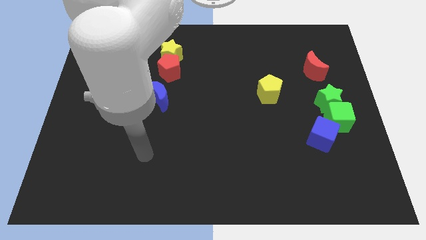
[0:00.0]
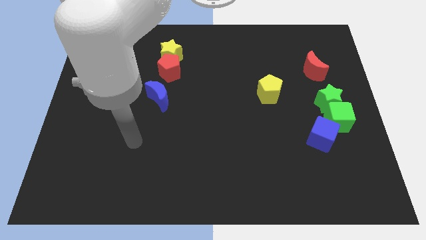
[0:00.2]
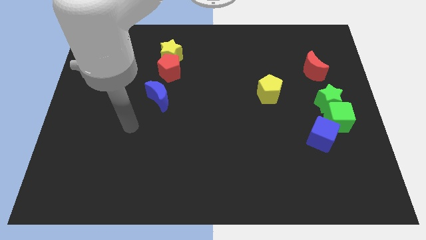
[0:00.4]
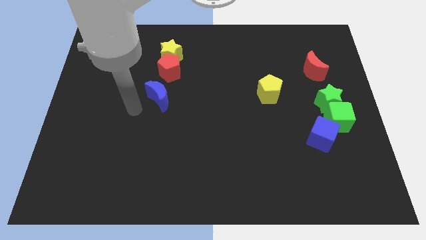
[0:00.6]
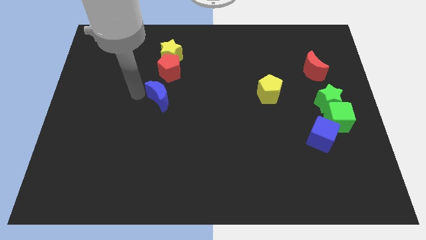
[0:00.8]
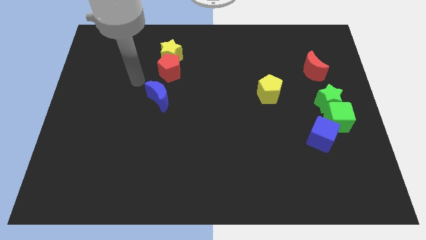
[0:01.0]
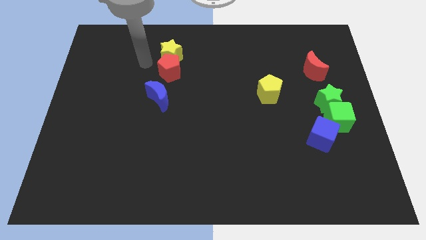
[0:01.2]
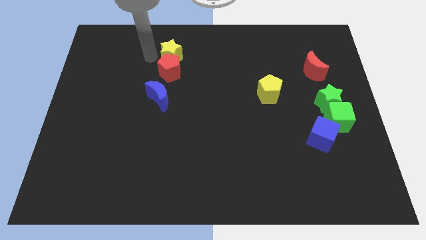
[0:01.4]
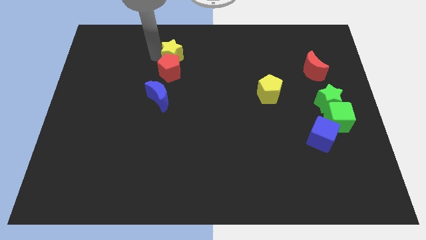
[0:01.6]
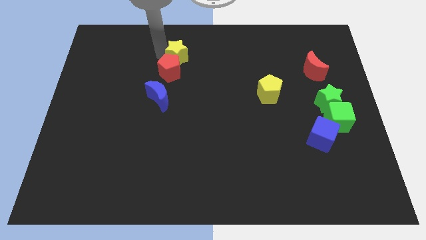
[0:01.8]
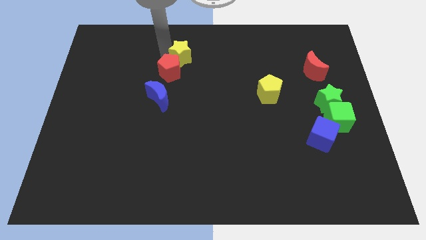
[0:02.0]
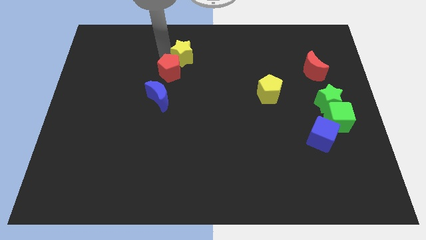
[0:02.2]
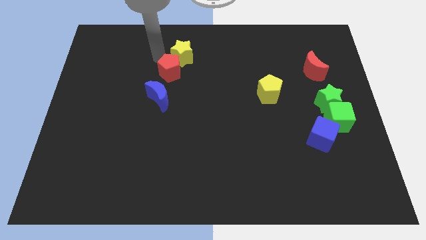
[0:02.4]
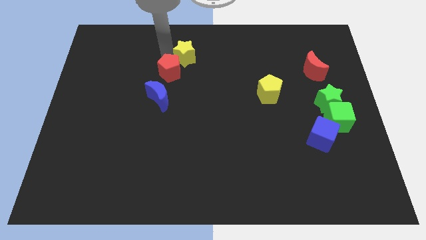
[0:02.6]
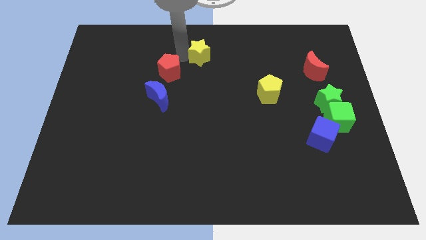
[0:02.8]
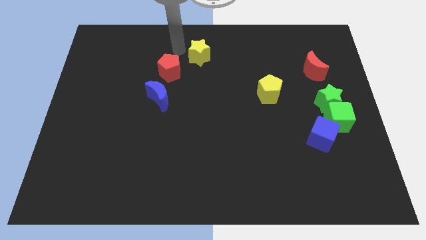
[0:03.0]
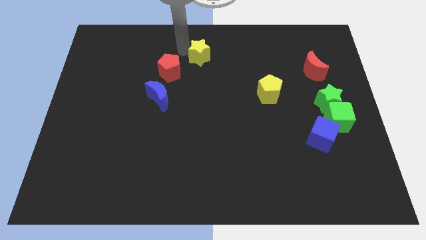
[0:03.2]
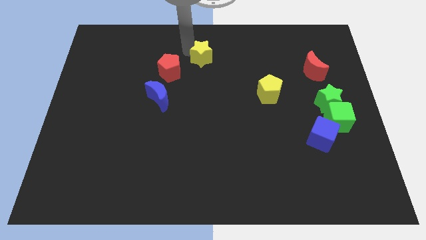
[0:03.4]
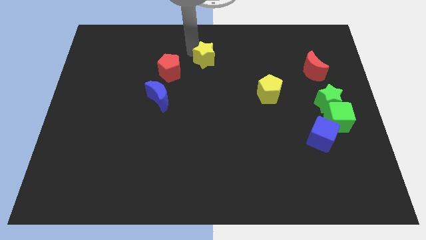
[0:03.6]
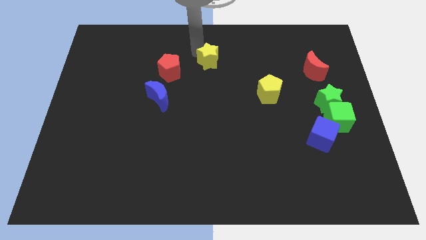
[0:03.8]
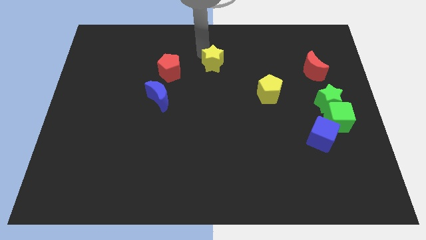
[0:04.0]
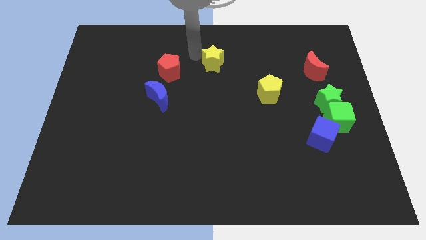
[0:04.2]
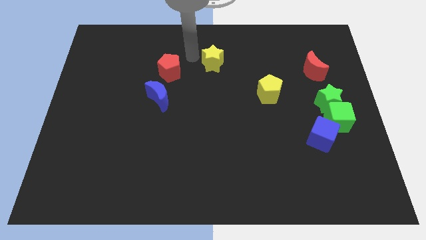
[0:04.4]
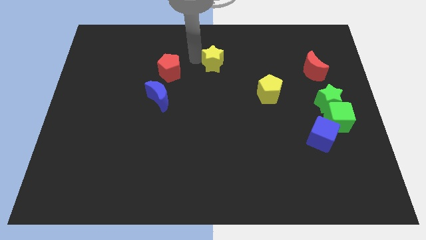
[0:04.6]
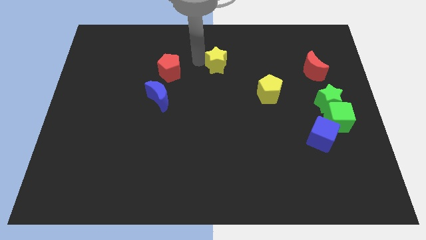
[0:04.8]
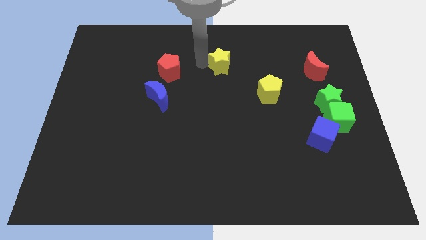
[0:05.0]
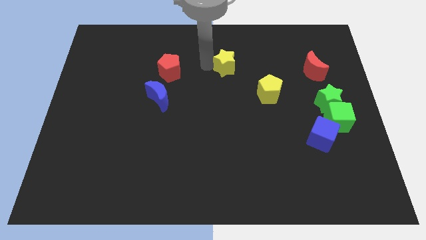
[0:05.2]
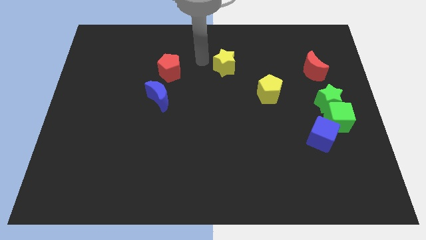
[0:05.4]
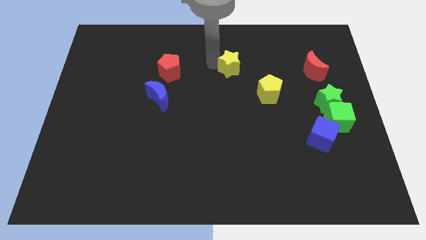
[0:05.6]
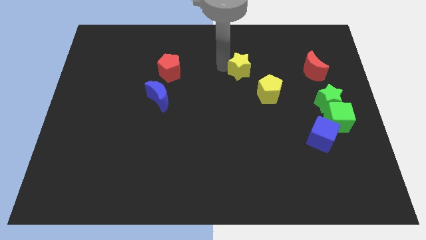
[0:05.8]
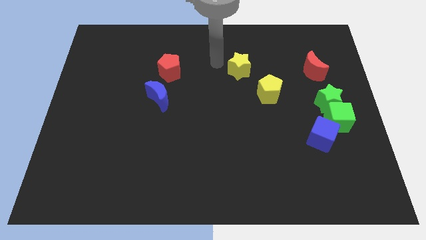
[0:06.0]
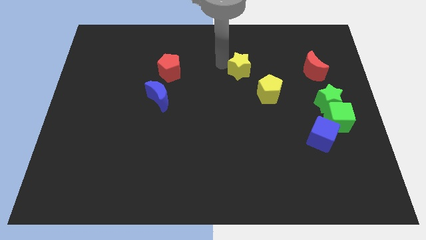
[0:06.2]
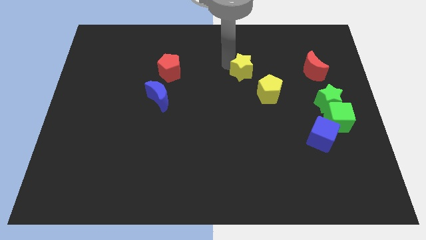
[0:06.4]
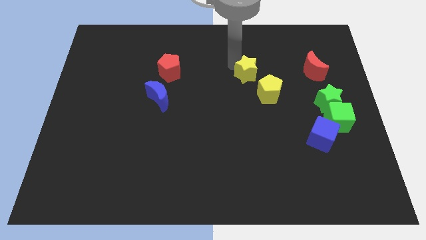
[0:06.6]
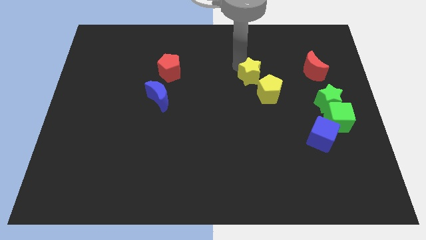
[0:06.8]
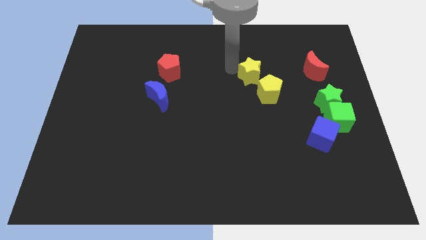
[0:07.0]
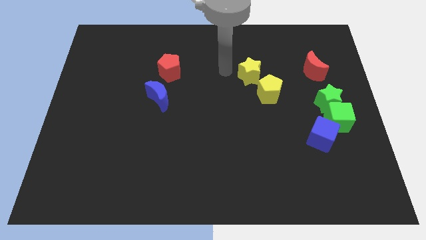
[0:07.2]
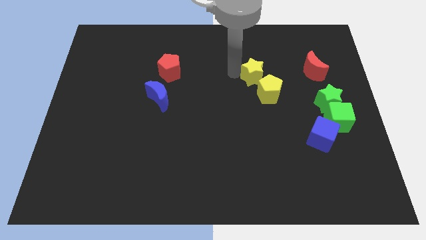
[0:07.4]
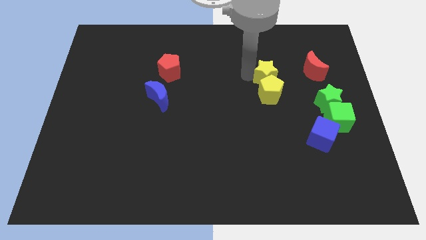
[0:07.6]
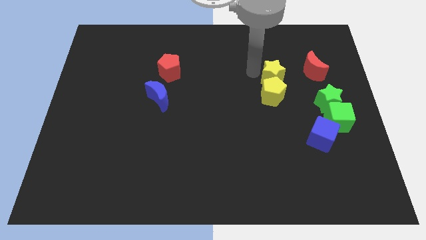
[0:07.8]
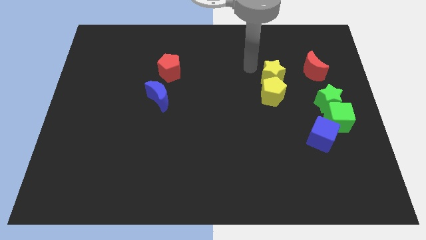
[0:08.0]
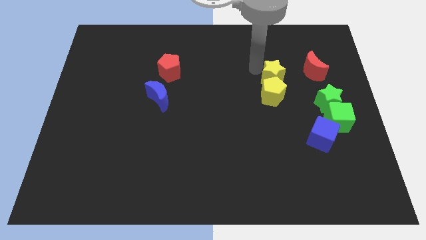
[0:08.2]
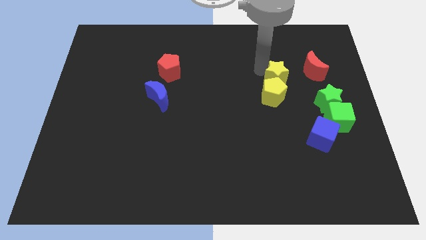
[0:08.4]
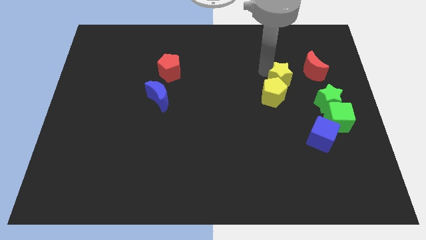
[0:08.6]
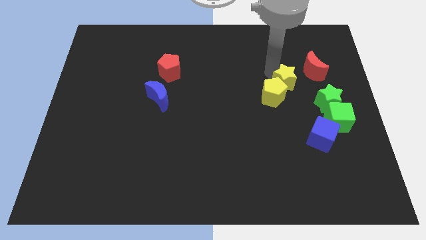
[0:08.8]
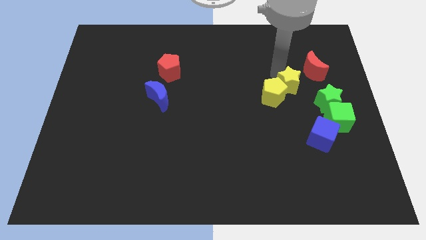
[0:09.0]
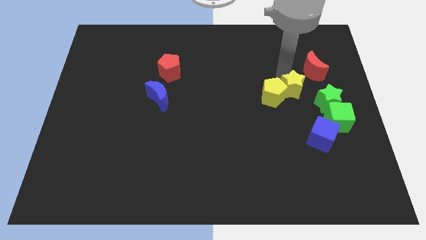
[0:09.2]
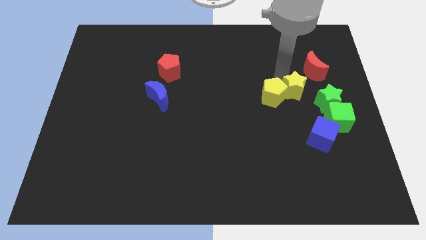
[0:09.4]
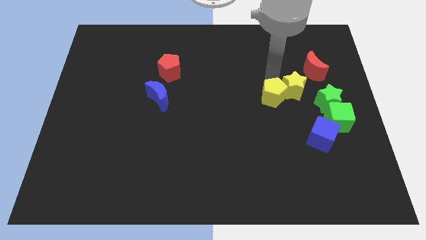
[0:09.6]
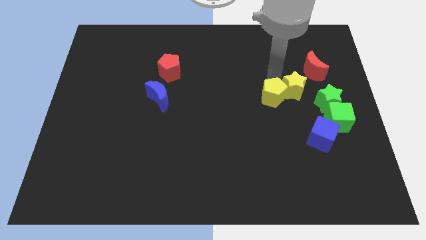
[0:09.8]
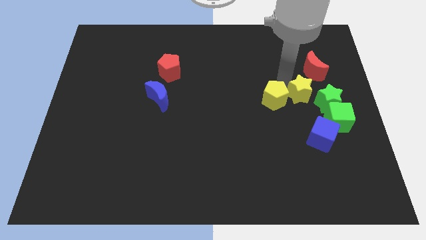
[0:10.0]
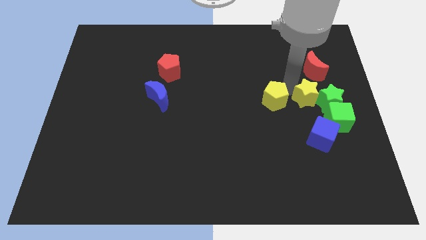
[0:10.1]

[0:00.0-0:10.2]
slide the yellow star towards the green star

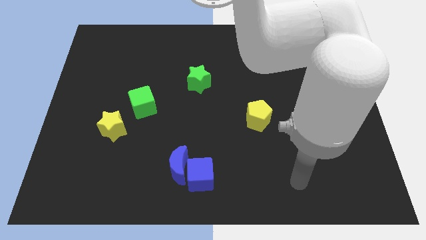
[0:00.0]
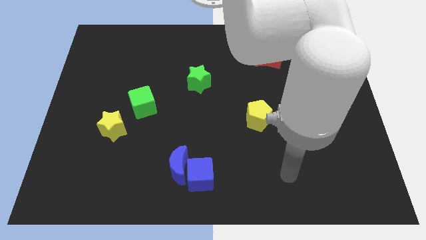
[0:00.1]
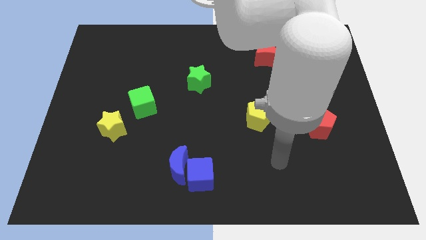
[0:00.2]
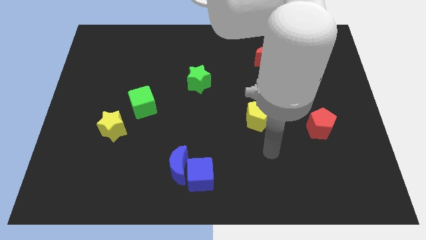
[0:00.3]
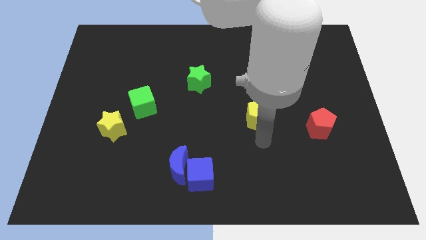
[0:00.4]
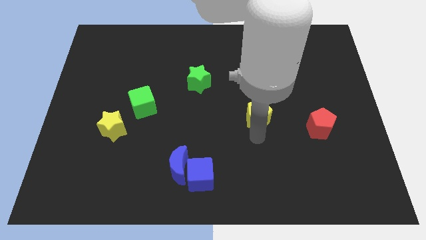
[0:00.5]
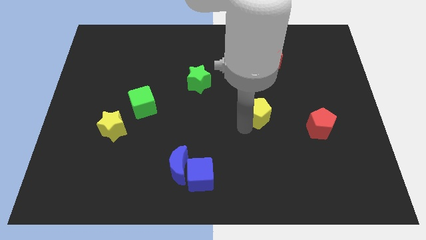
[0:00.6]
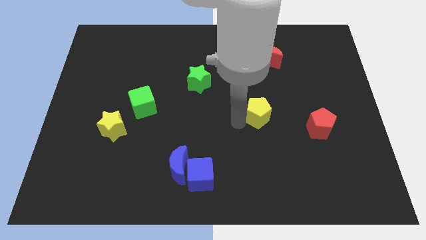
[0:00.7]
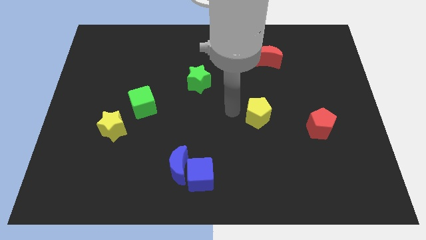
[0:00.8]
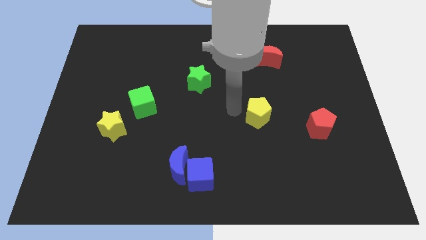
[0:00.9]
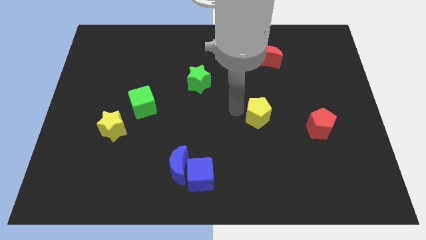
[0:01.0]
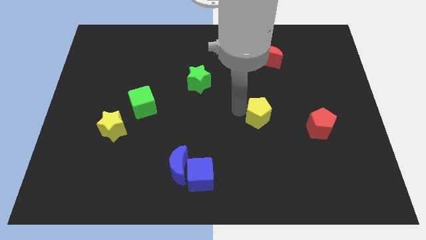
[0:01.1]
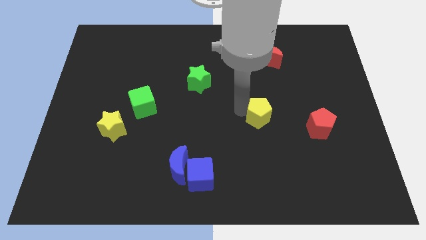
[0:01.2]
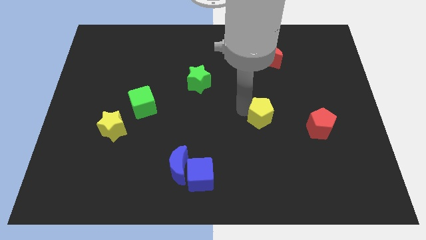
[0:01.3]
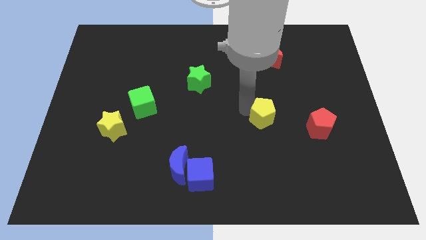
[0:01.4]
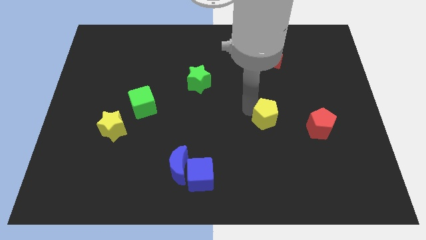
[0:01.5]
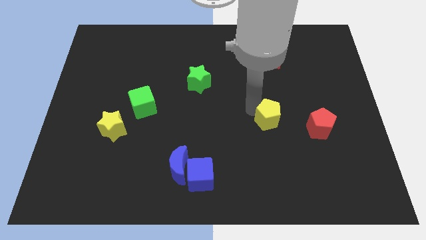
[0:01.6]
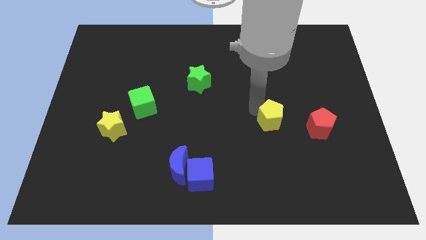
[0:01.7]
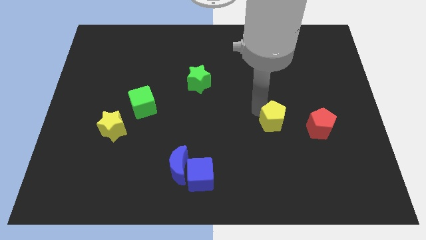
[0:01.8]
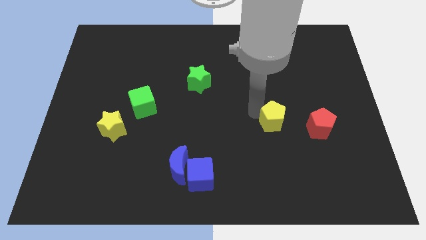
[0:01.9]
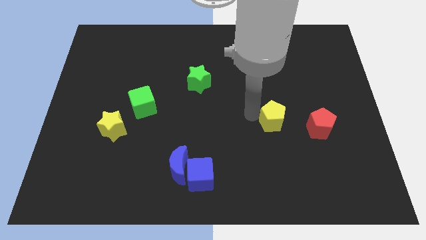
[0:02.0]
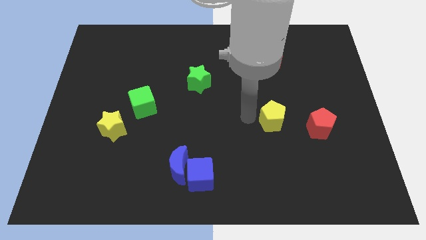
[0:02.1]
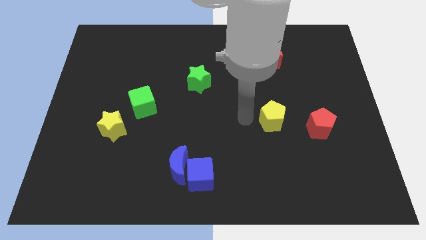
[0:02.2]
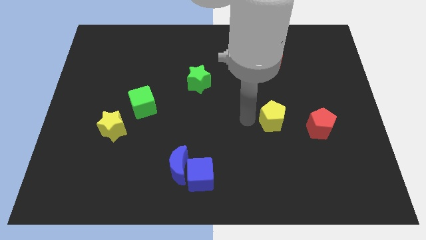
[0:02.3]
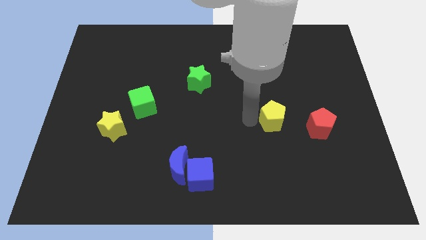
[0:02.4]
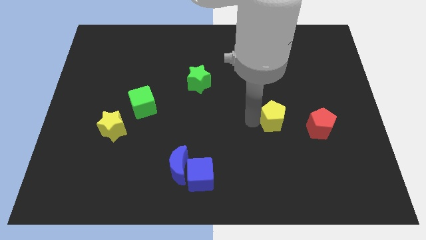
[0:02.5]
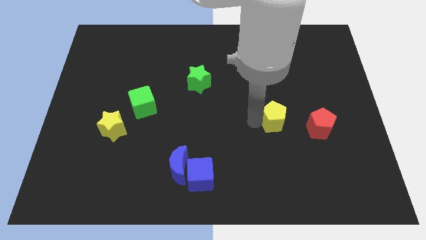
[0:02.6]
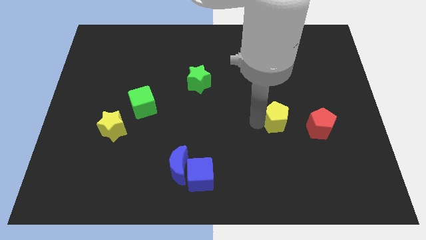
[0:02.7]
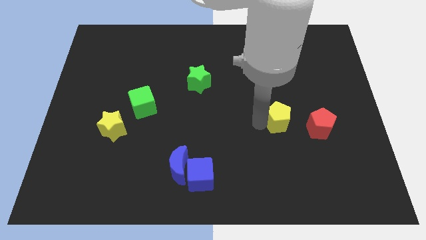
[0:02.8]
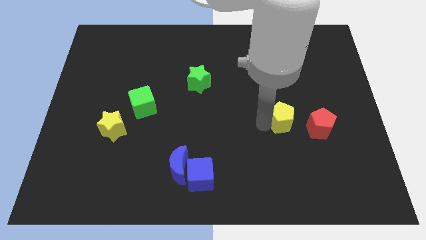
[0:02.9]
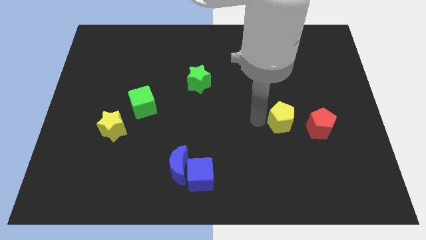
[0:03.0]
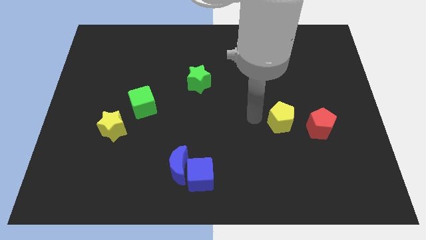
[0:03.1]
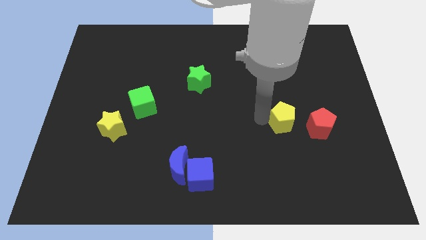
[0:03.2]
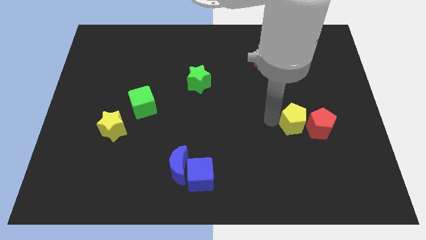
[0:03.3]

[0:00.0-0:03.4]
put the yellow pentagon next to the red pentagon
